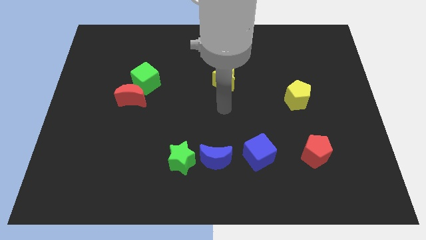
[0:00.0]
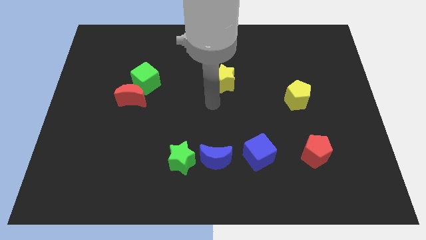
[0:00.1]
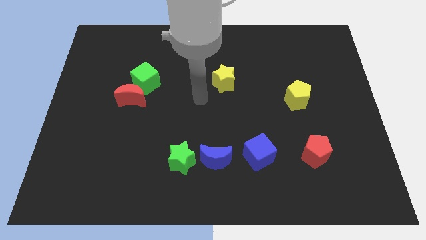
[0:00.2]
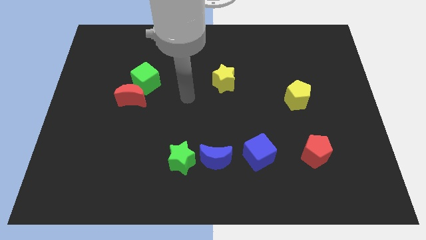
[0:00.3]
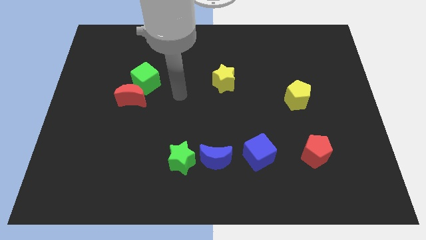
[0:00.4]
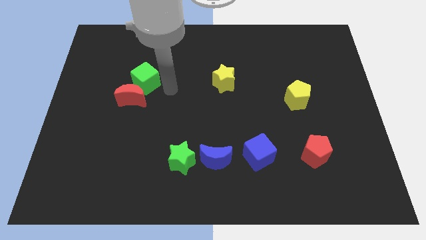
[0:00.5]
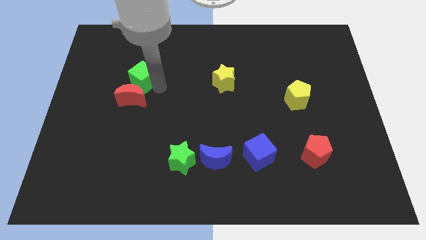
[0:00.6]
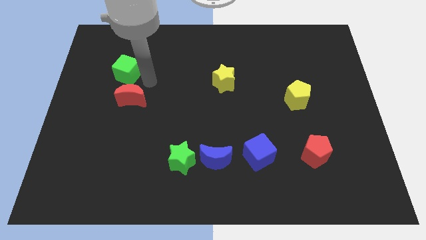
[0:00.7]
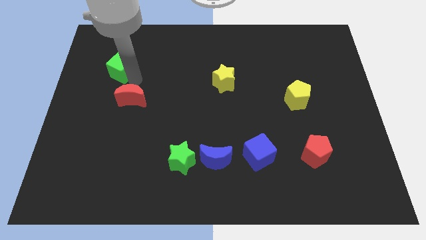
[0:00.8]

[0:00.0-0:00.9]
separate the red moon from the green cube

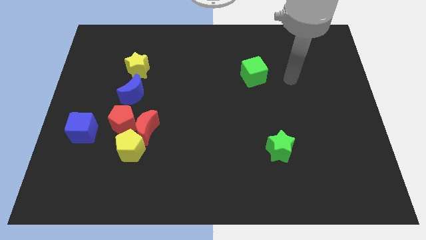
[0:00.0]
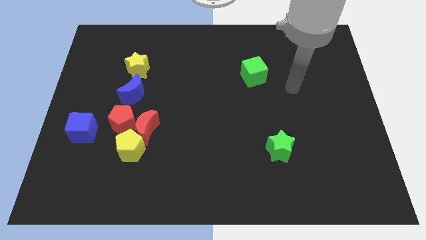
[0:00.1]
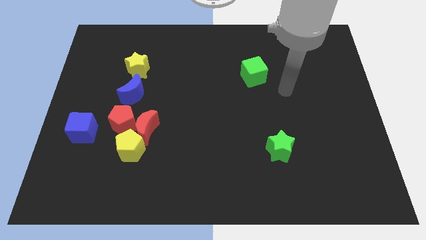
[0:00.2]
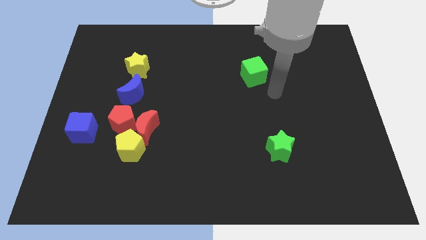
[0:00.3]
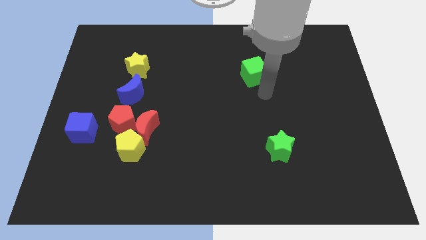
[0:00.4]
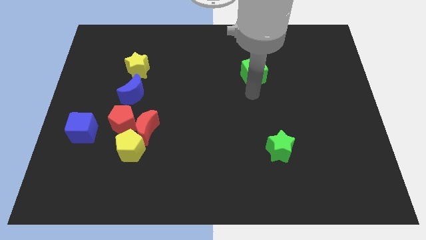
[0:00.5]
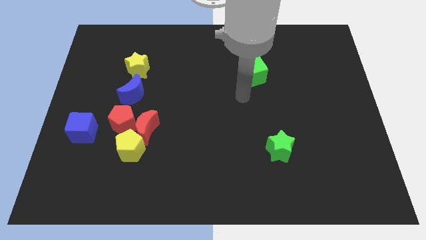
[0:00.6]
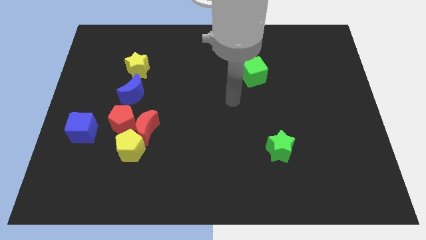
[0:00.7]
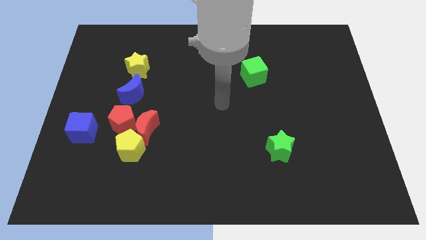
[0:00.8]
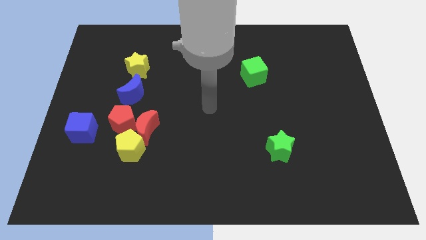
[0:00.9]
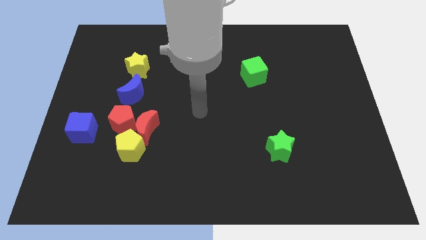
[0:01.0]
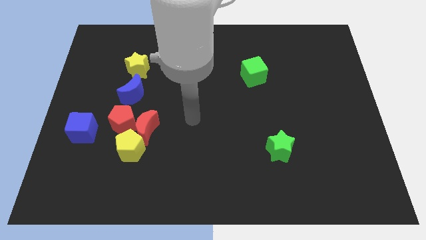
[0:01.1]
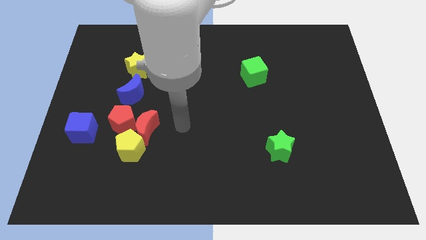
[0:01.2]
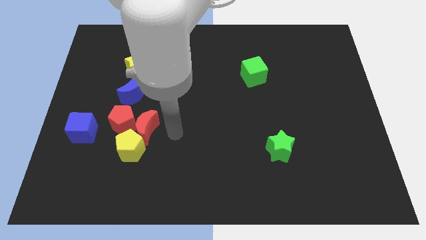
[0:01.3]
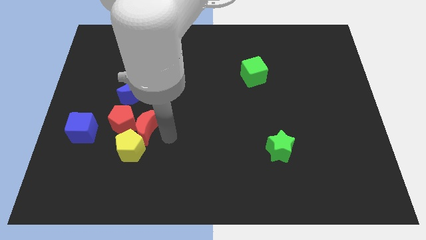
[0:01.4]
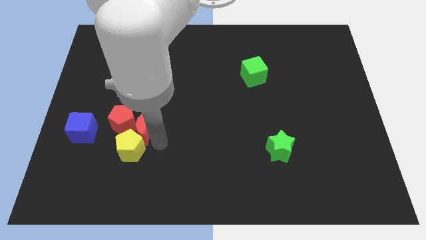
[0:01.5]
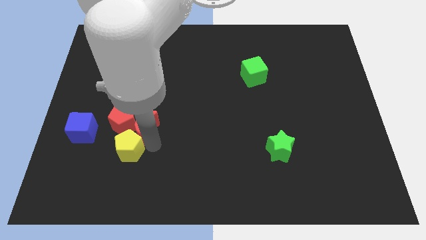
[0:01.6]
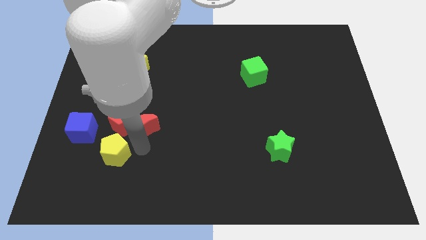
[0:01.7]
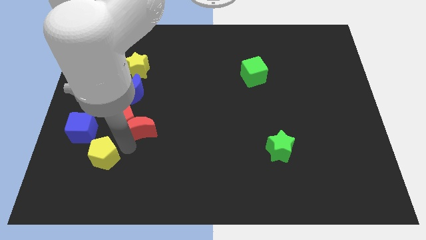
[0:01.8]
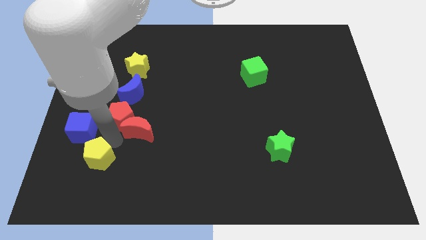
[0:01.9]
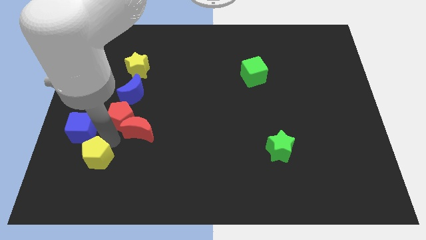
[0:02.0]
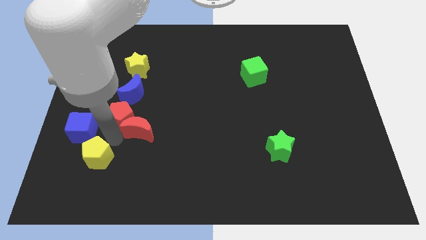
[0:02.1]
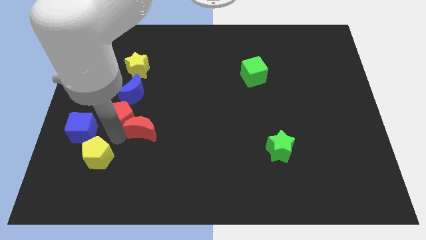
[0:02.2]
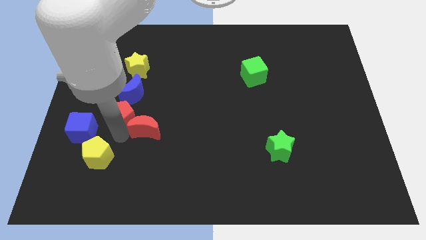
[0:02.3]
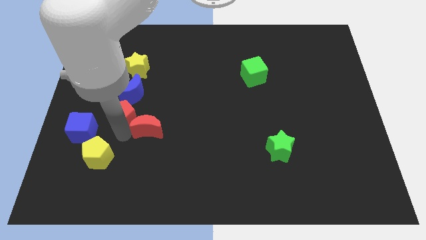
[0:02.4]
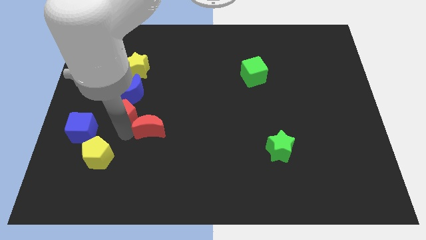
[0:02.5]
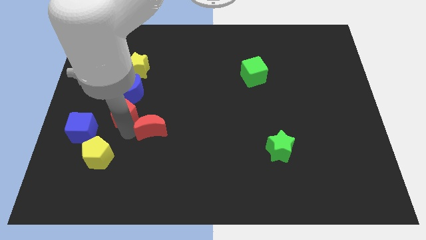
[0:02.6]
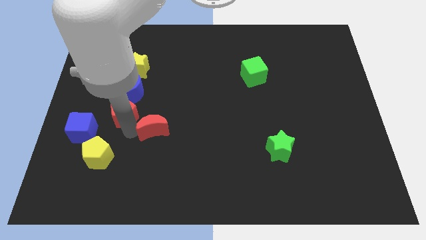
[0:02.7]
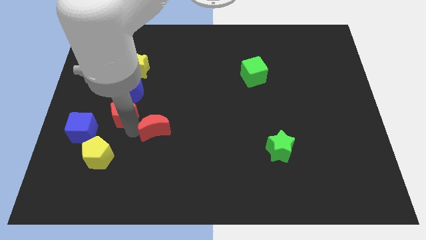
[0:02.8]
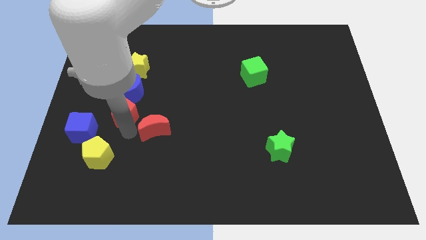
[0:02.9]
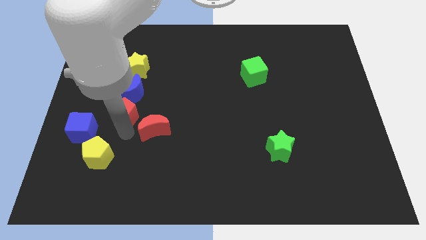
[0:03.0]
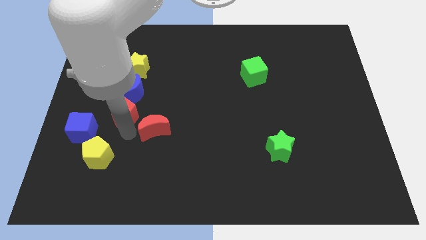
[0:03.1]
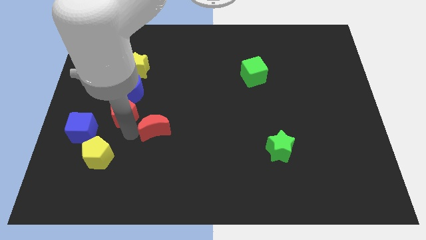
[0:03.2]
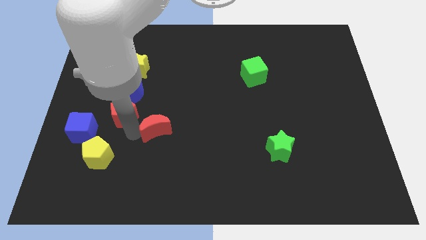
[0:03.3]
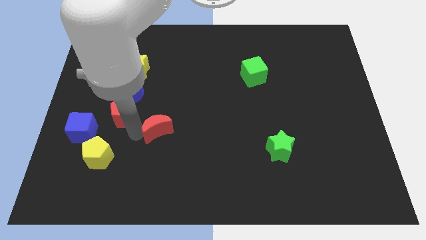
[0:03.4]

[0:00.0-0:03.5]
pull the red moon apart from the red pentagon and yellow pentagon

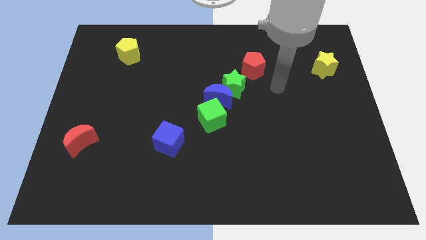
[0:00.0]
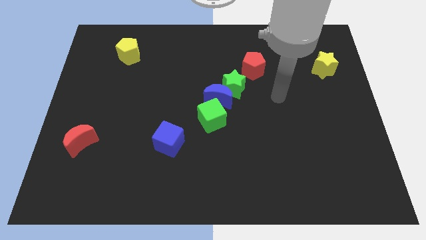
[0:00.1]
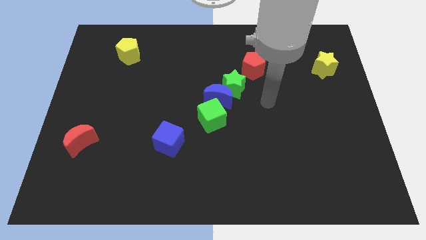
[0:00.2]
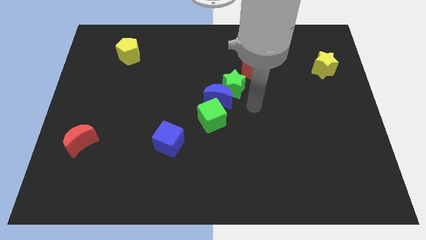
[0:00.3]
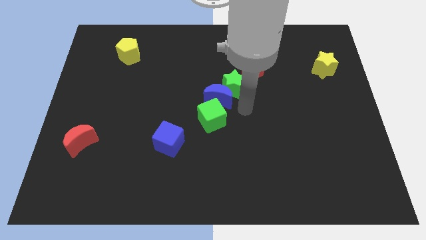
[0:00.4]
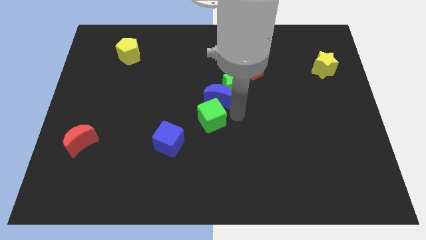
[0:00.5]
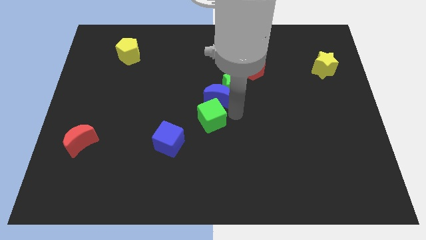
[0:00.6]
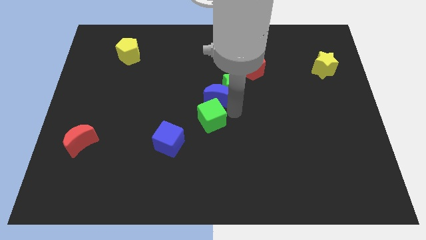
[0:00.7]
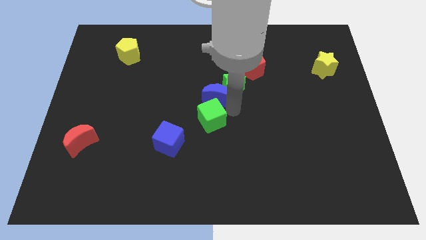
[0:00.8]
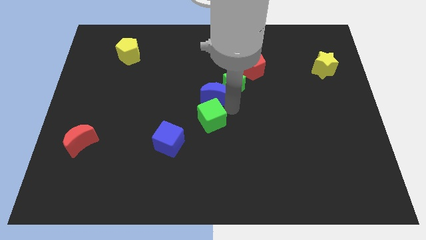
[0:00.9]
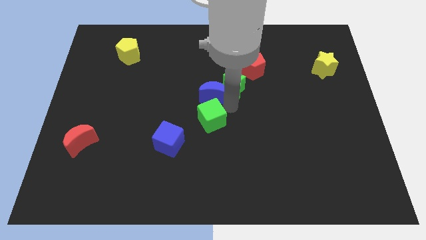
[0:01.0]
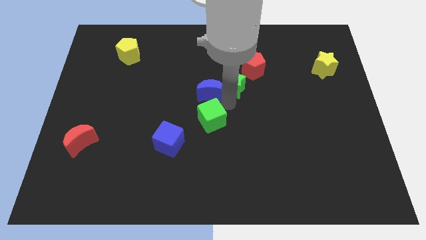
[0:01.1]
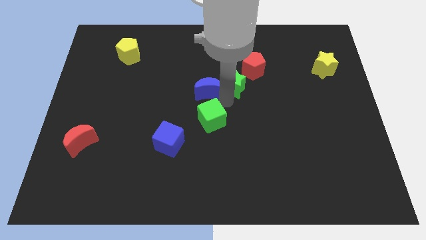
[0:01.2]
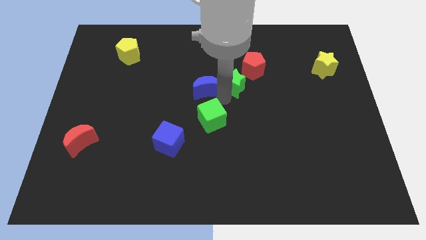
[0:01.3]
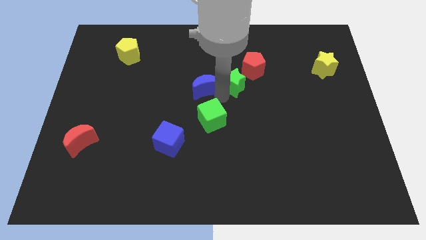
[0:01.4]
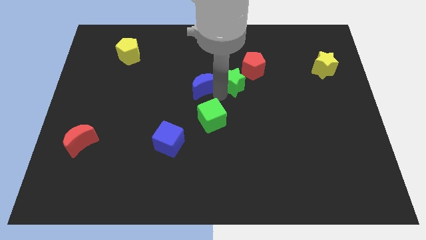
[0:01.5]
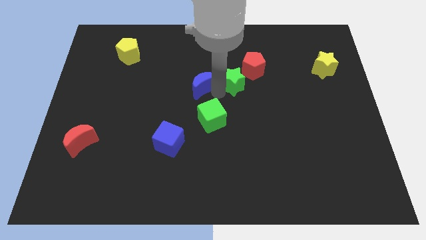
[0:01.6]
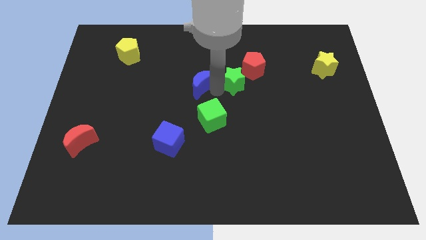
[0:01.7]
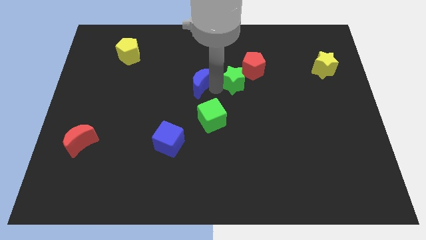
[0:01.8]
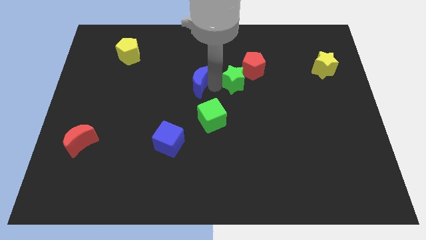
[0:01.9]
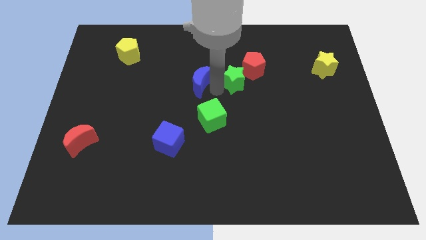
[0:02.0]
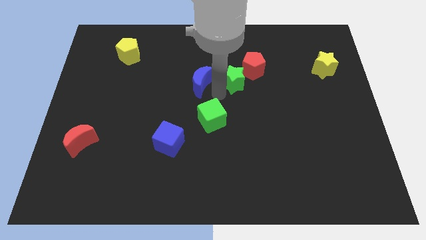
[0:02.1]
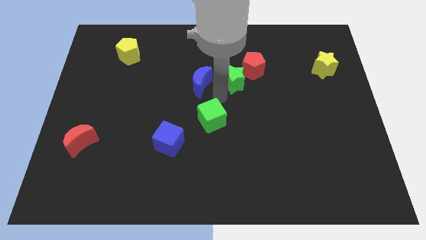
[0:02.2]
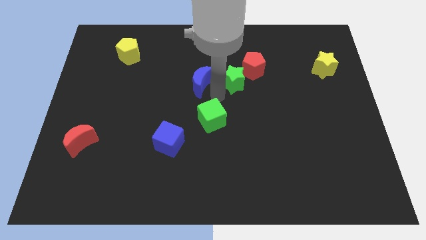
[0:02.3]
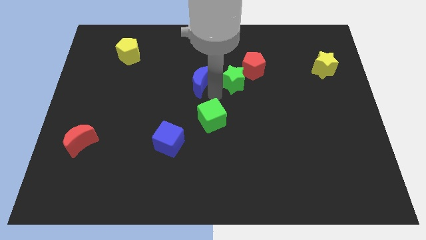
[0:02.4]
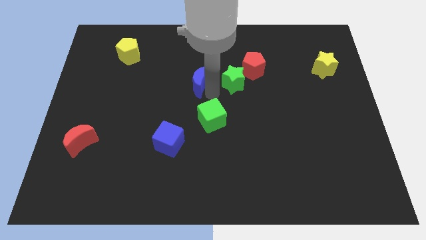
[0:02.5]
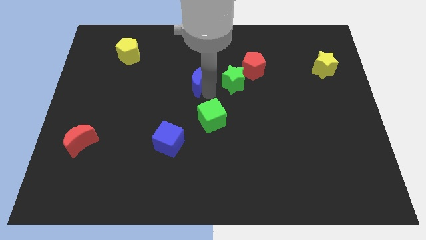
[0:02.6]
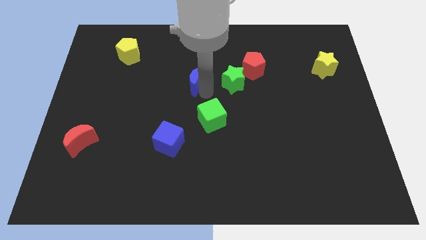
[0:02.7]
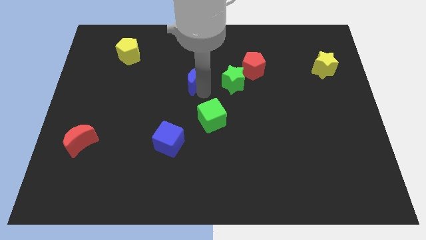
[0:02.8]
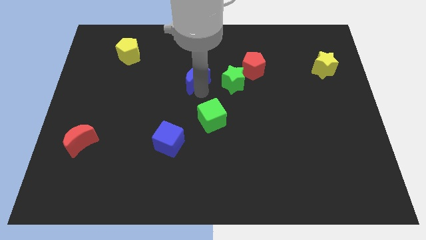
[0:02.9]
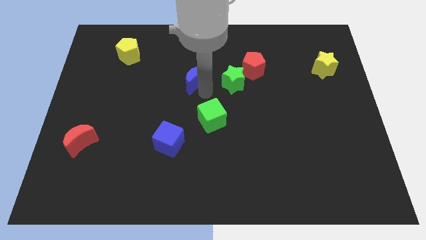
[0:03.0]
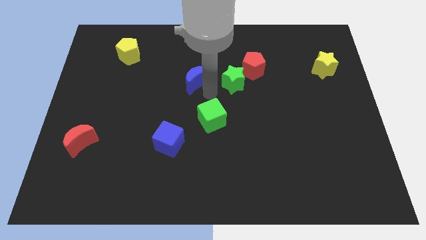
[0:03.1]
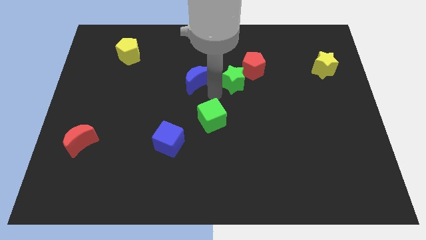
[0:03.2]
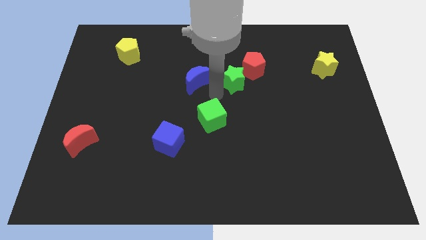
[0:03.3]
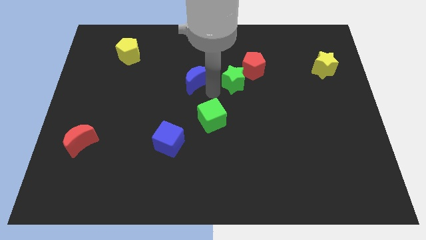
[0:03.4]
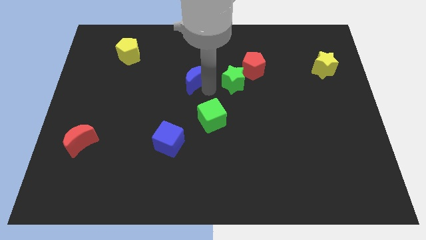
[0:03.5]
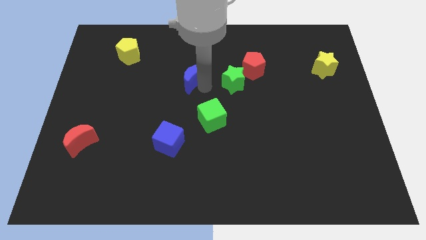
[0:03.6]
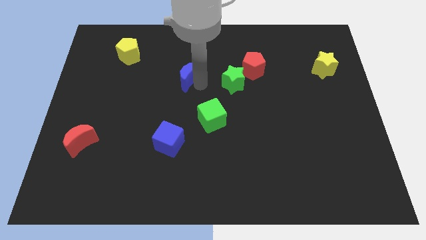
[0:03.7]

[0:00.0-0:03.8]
pull the blue moon apart from the green star and green cube

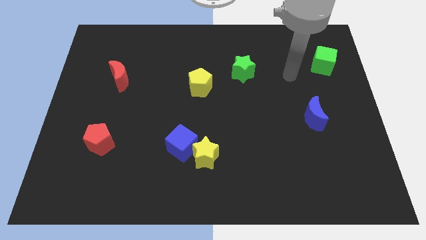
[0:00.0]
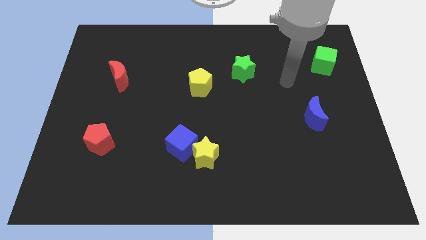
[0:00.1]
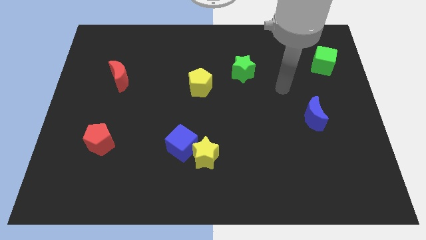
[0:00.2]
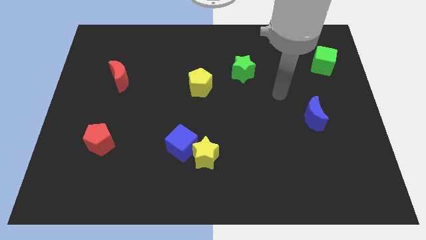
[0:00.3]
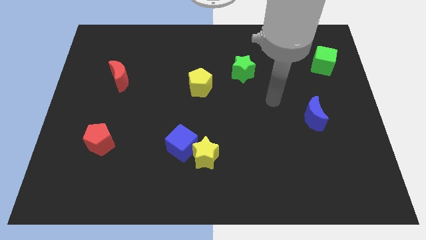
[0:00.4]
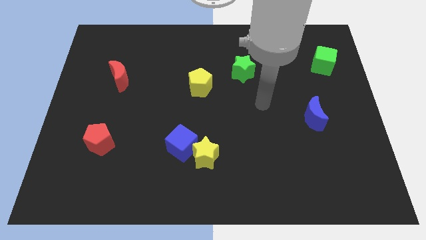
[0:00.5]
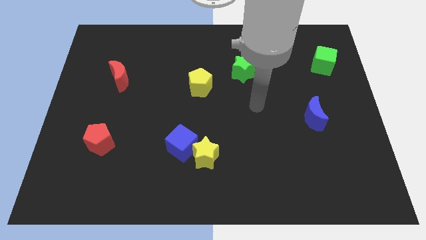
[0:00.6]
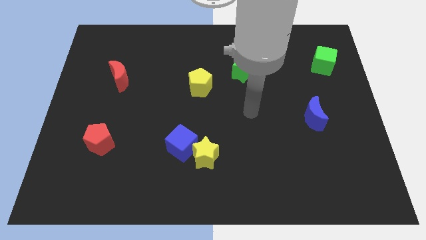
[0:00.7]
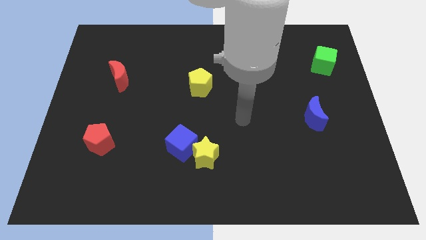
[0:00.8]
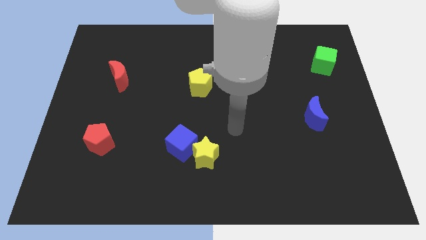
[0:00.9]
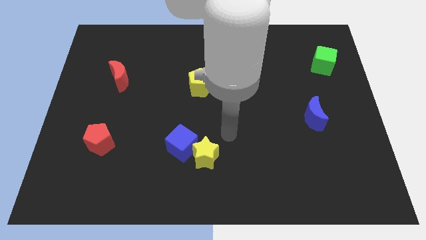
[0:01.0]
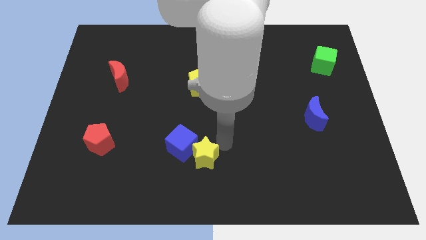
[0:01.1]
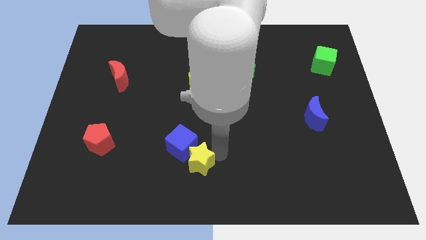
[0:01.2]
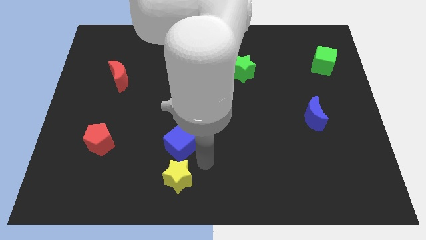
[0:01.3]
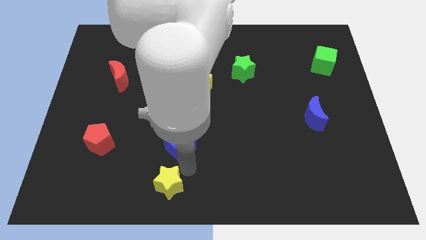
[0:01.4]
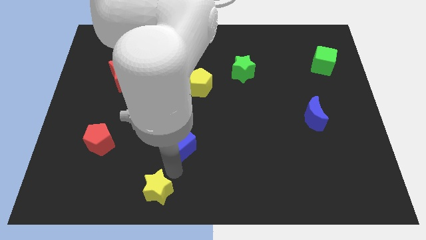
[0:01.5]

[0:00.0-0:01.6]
separate the blue cube from the yellow star
